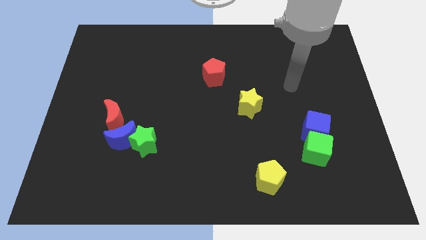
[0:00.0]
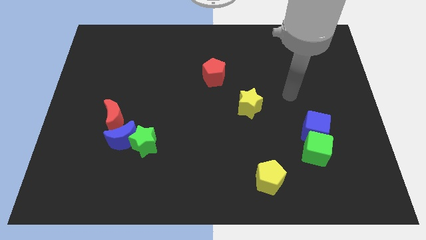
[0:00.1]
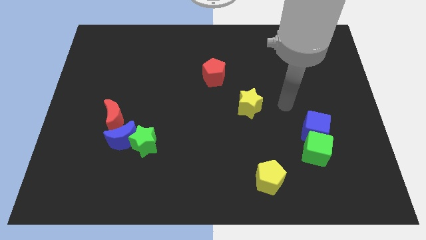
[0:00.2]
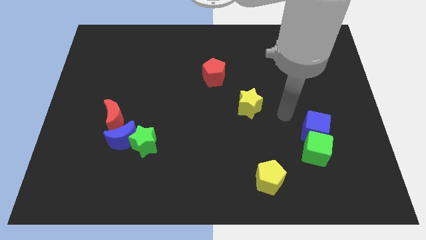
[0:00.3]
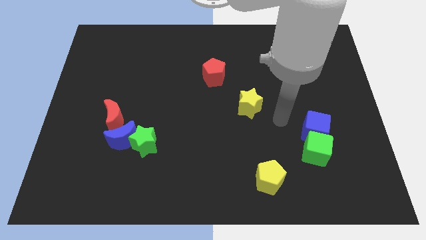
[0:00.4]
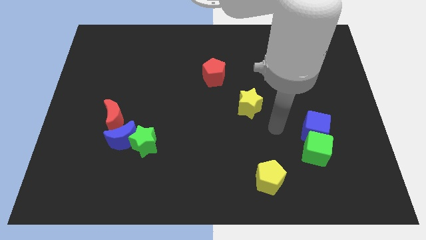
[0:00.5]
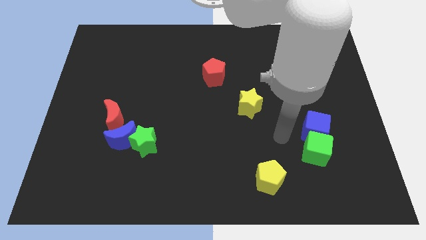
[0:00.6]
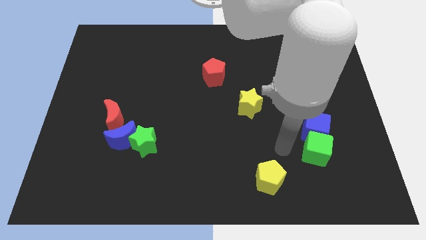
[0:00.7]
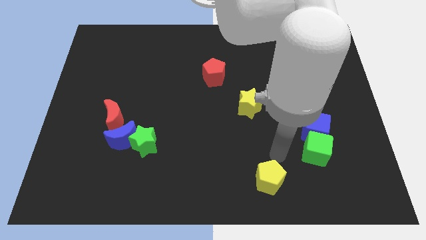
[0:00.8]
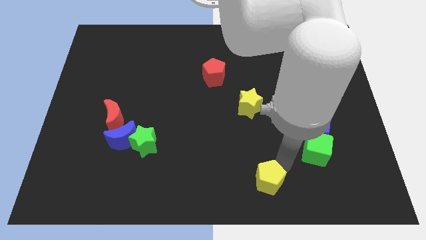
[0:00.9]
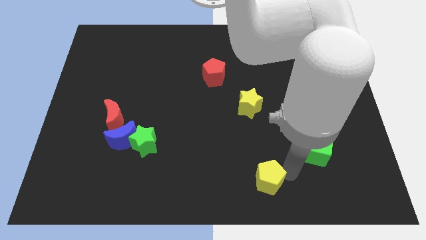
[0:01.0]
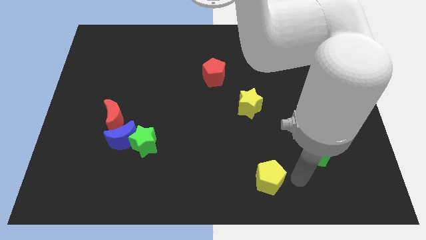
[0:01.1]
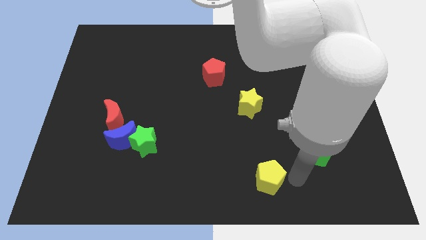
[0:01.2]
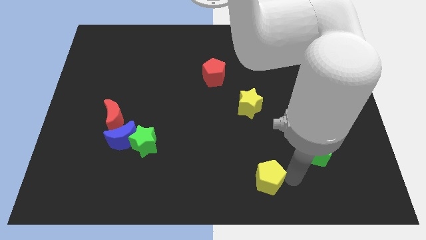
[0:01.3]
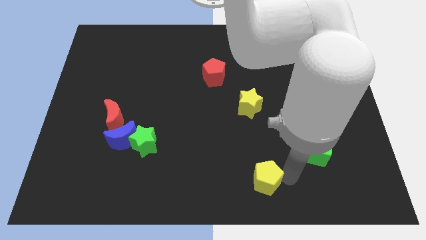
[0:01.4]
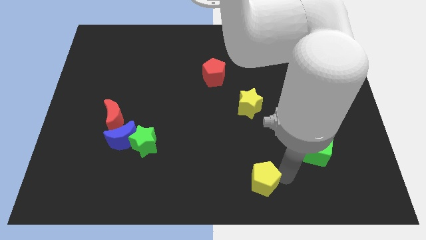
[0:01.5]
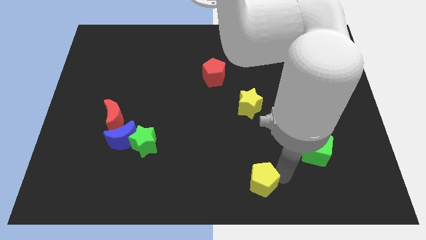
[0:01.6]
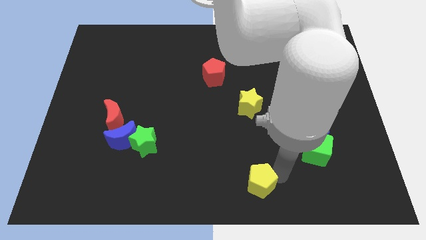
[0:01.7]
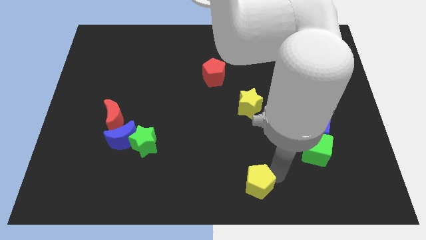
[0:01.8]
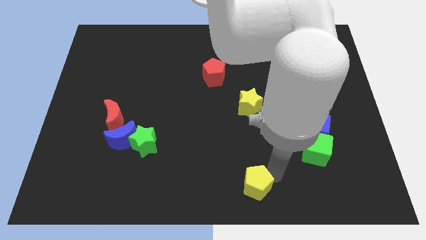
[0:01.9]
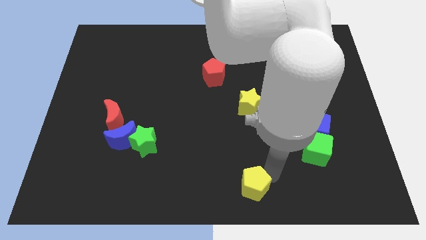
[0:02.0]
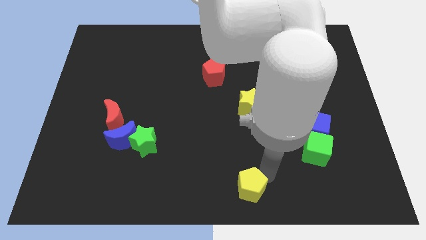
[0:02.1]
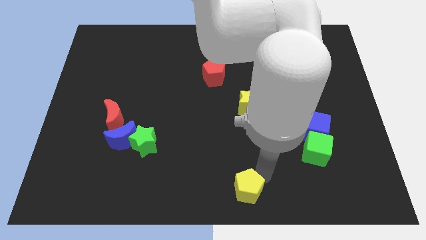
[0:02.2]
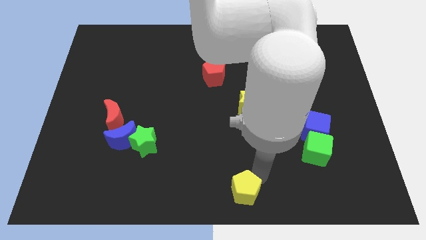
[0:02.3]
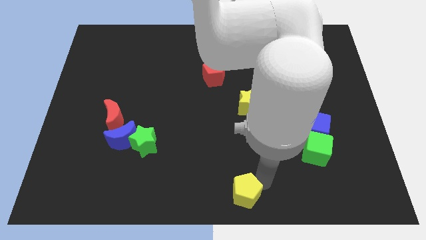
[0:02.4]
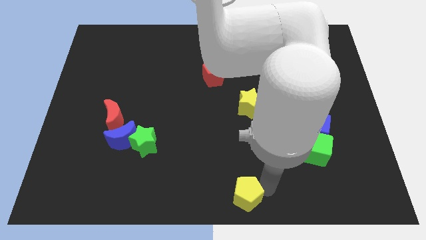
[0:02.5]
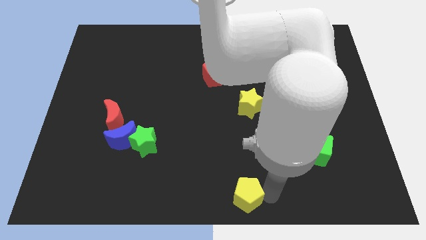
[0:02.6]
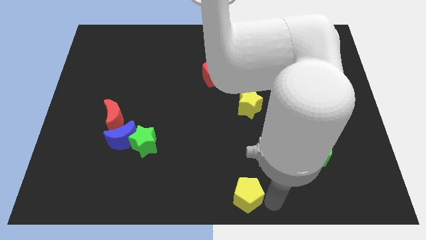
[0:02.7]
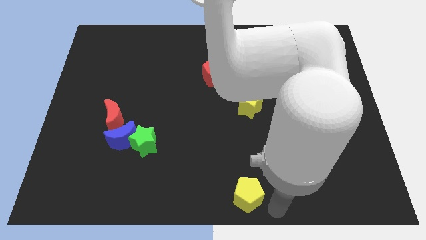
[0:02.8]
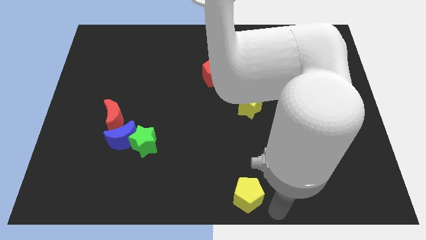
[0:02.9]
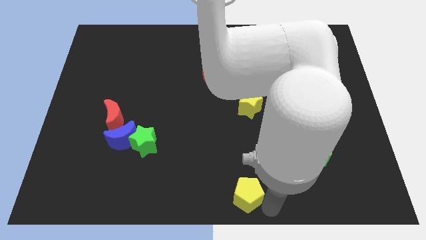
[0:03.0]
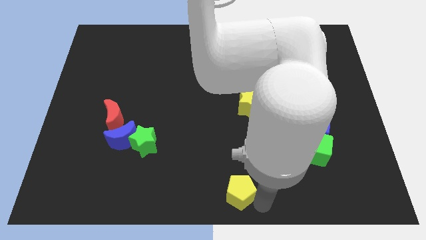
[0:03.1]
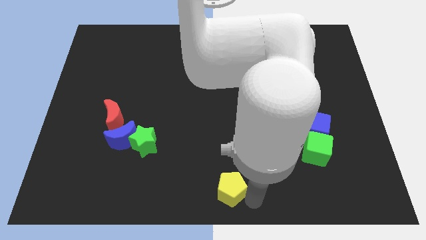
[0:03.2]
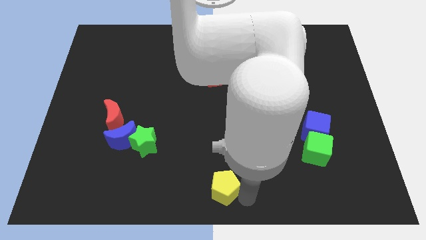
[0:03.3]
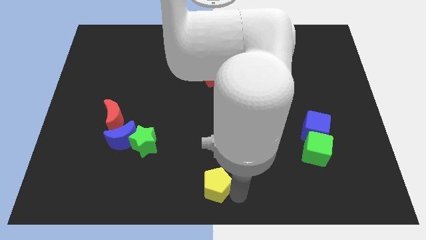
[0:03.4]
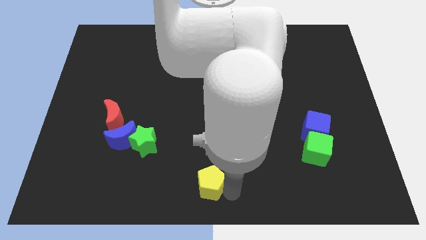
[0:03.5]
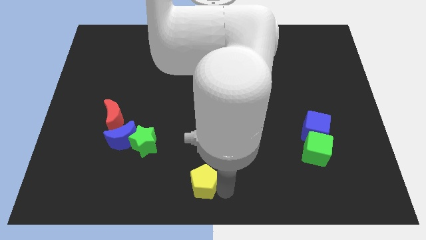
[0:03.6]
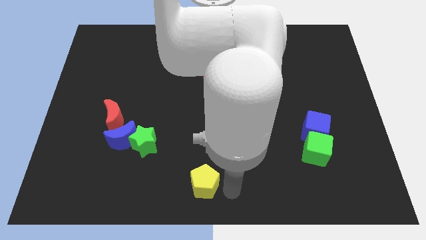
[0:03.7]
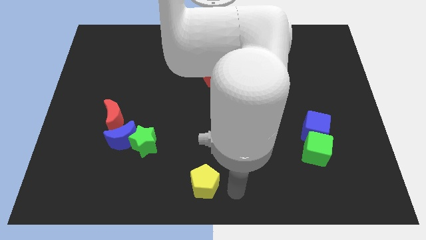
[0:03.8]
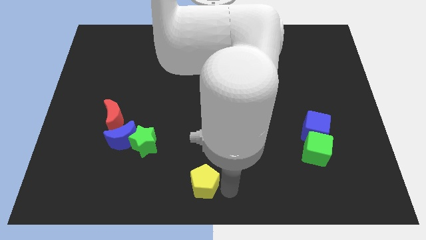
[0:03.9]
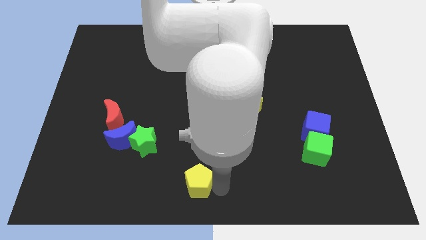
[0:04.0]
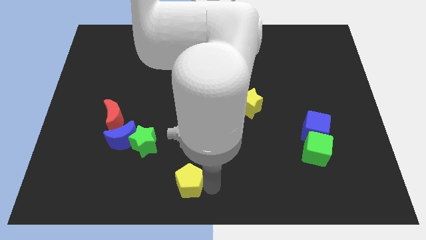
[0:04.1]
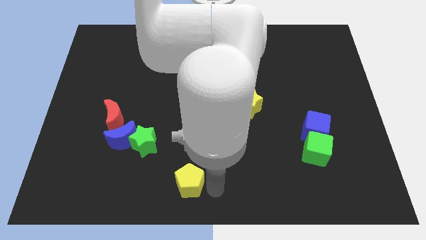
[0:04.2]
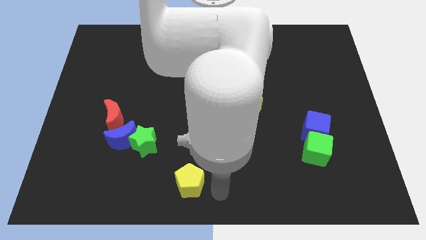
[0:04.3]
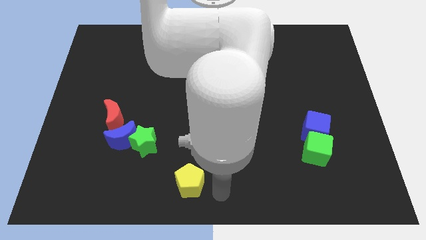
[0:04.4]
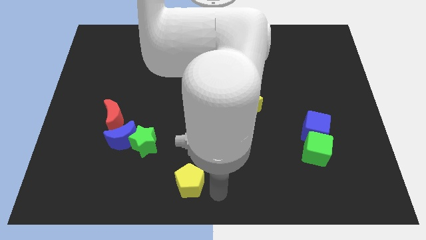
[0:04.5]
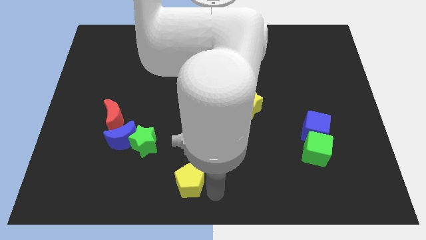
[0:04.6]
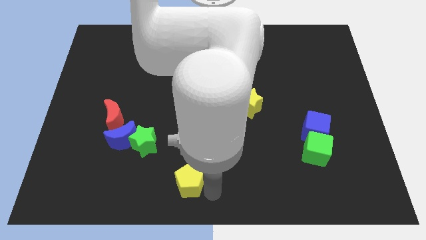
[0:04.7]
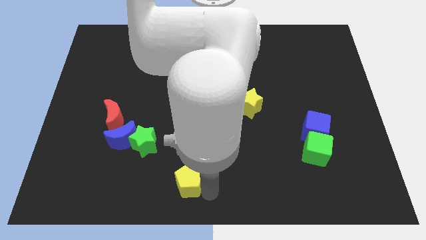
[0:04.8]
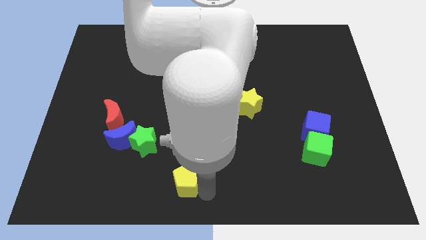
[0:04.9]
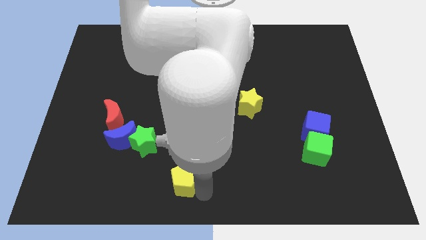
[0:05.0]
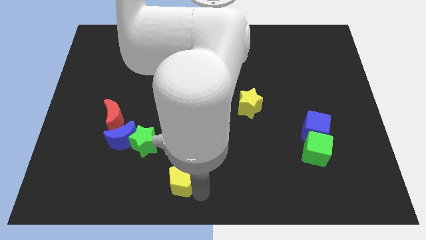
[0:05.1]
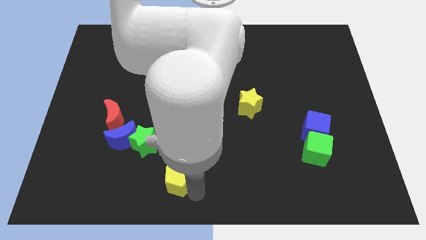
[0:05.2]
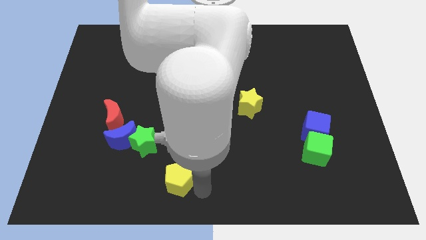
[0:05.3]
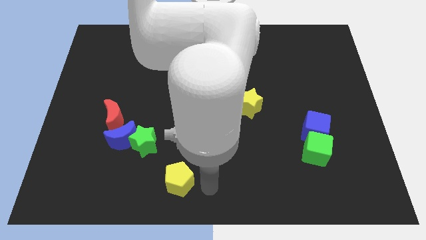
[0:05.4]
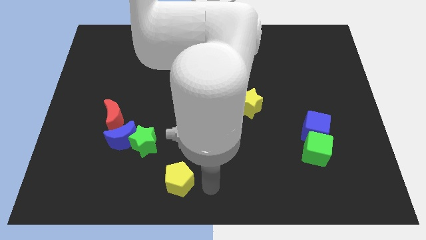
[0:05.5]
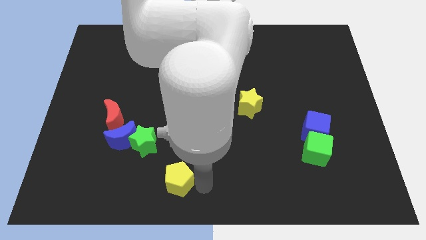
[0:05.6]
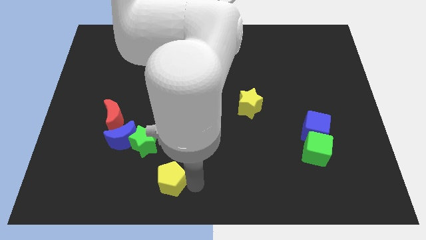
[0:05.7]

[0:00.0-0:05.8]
slide the yellow pentagon to the left

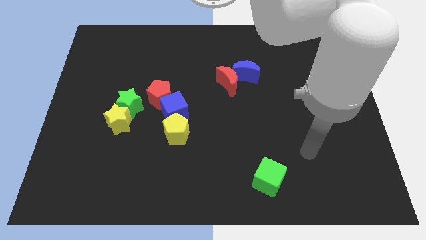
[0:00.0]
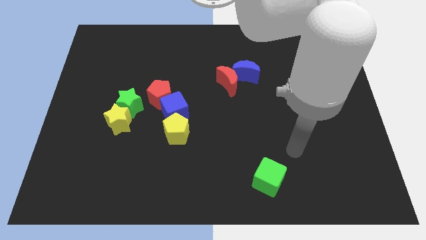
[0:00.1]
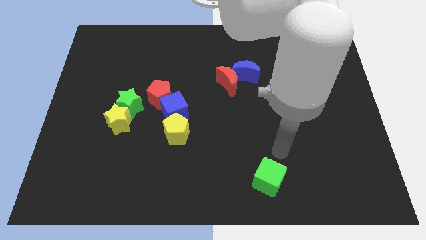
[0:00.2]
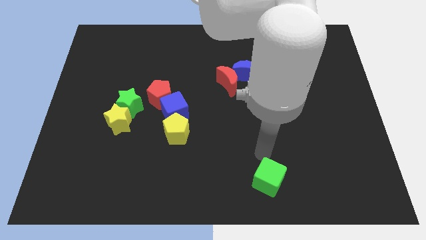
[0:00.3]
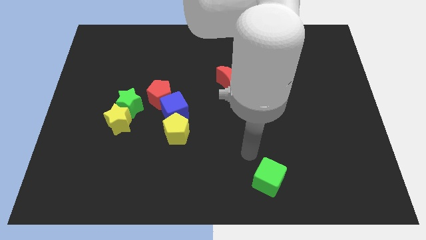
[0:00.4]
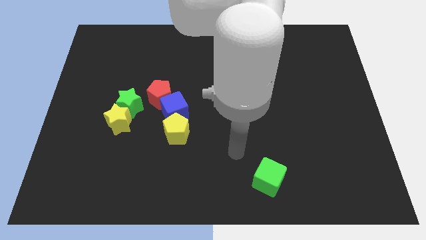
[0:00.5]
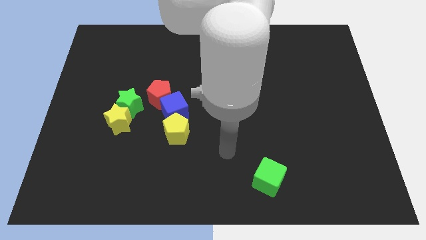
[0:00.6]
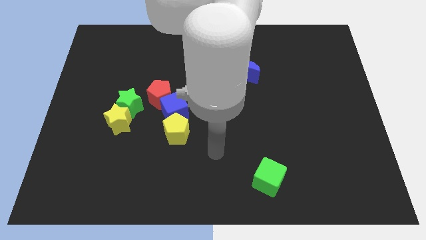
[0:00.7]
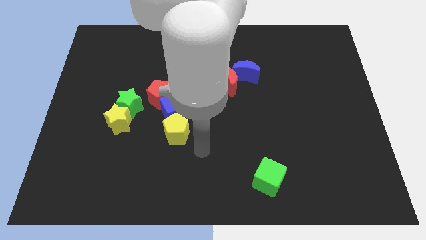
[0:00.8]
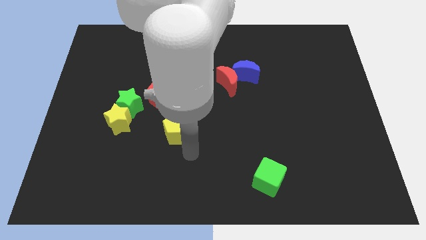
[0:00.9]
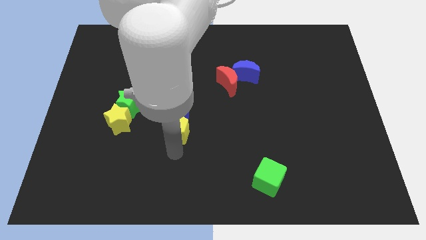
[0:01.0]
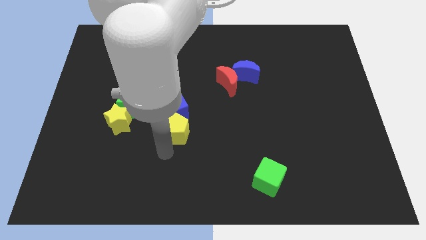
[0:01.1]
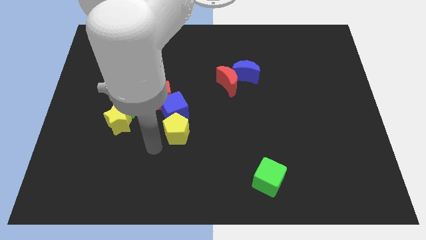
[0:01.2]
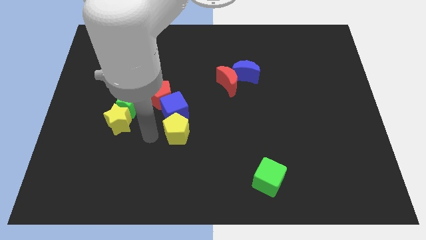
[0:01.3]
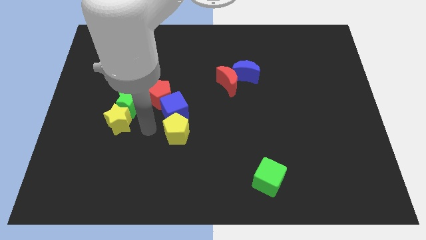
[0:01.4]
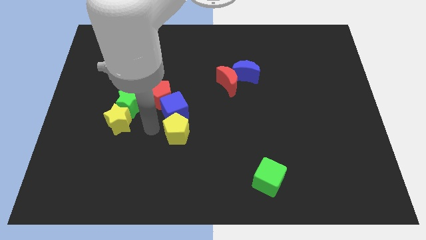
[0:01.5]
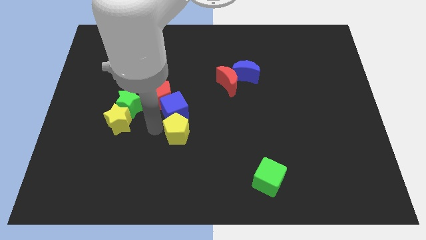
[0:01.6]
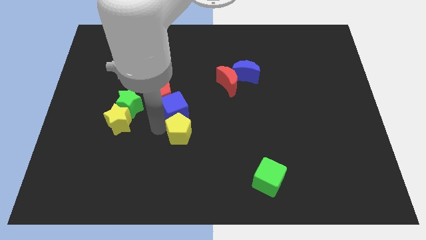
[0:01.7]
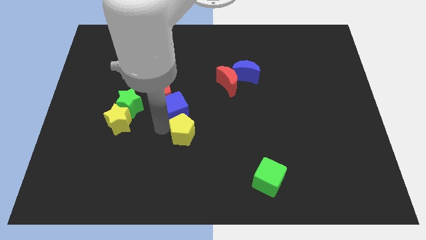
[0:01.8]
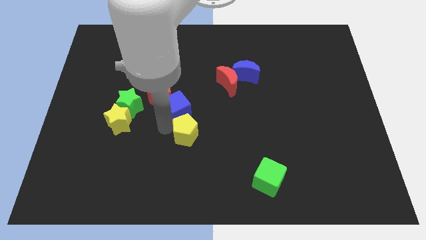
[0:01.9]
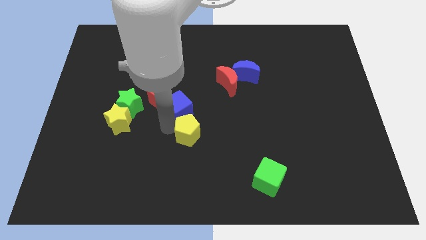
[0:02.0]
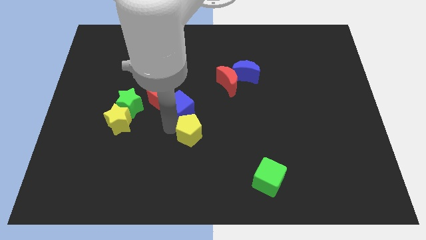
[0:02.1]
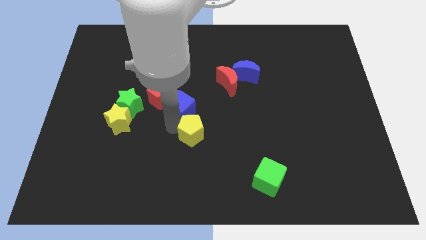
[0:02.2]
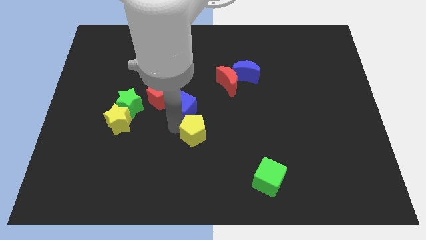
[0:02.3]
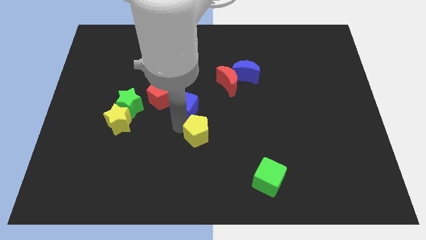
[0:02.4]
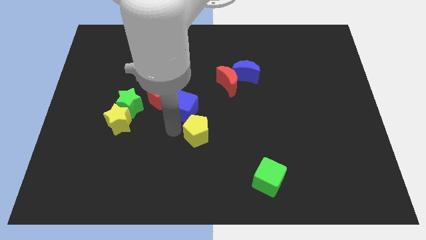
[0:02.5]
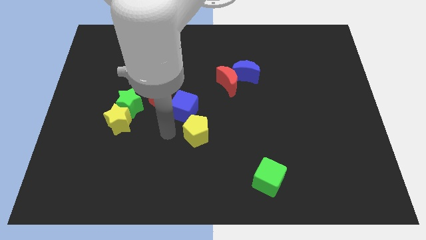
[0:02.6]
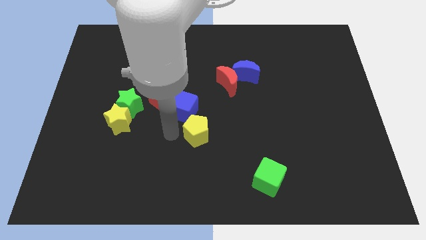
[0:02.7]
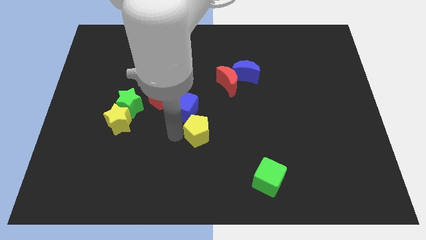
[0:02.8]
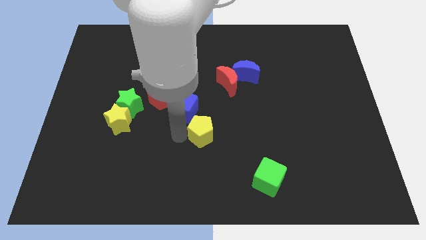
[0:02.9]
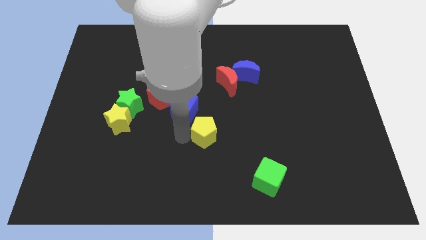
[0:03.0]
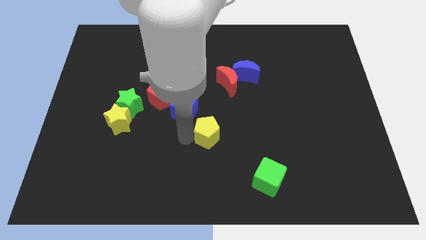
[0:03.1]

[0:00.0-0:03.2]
move the yellow pentagon to the right a bit
